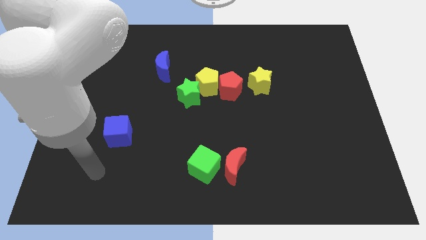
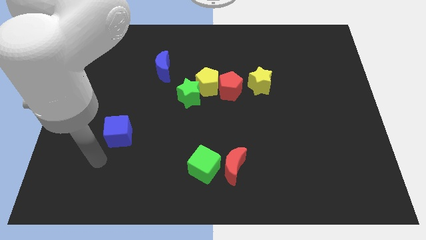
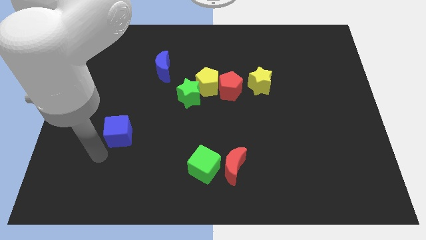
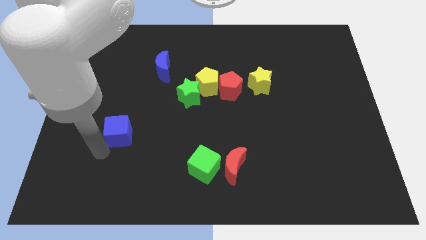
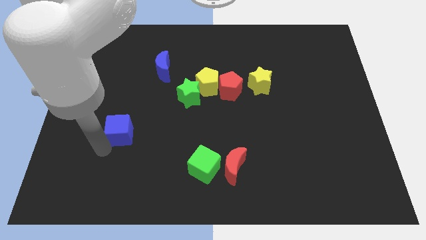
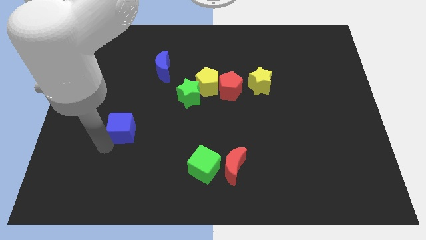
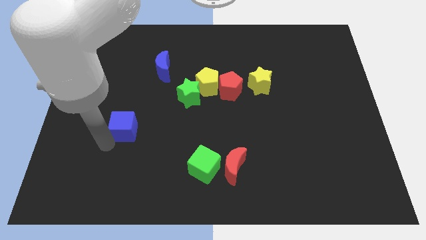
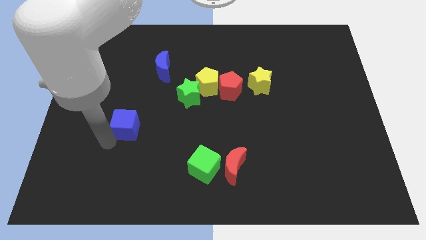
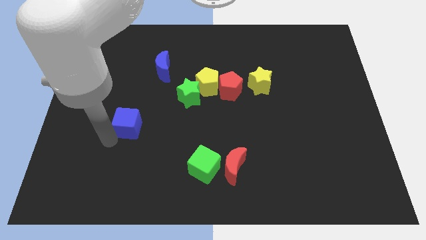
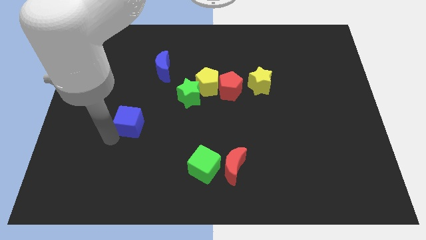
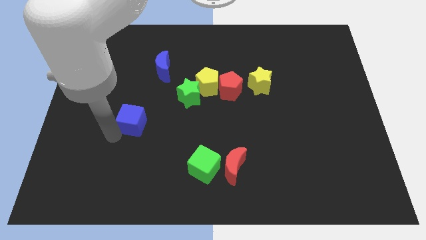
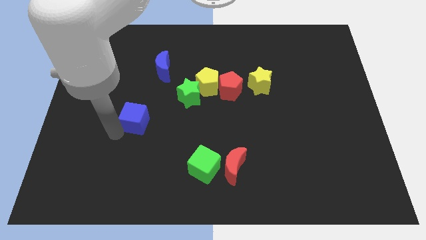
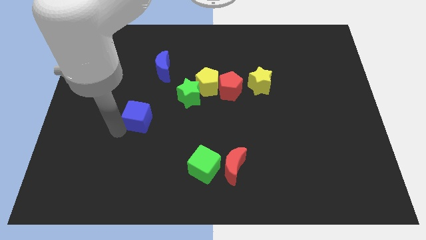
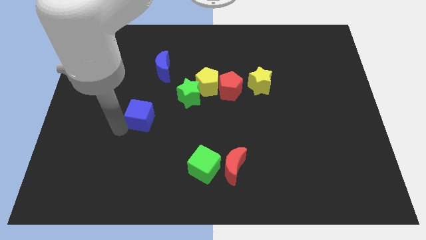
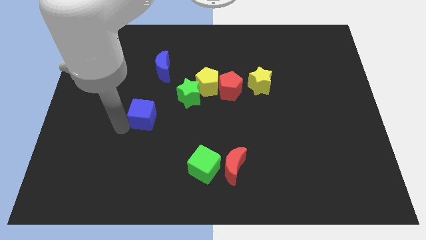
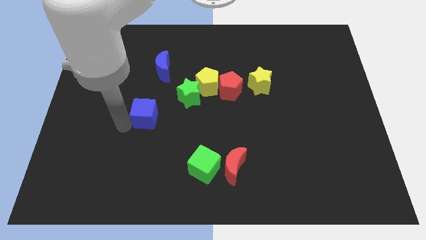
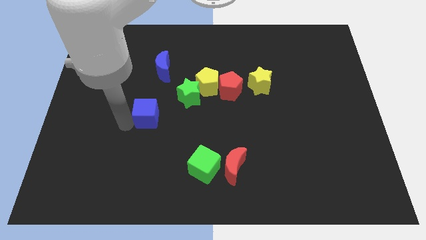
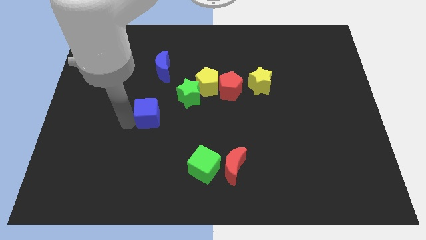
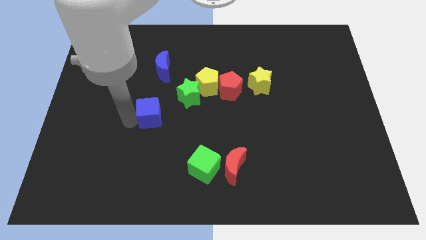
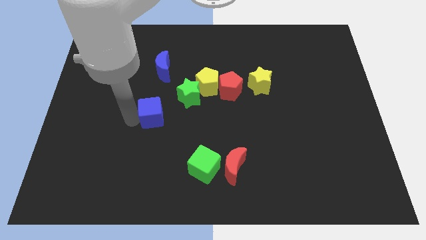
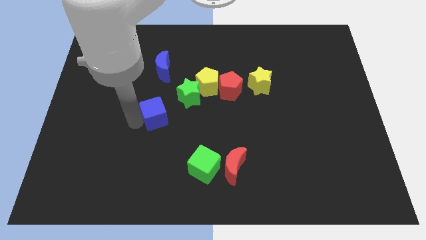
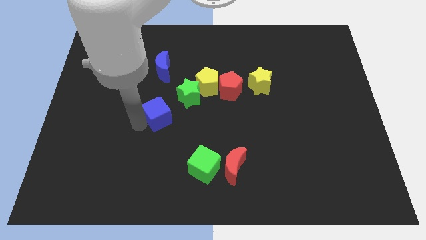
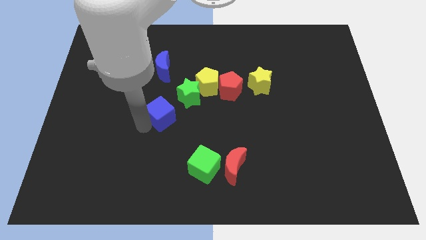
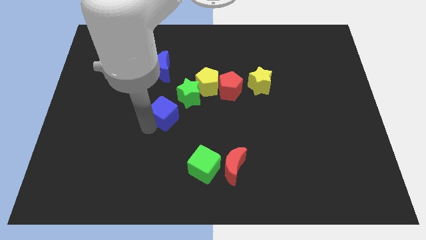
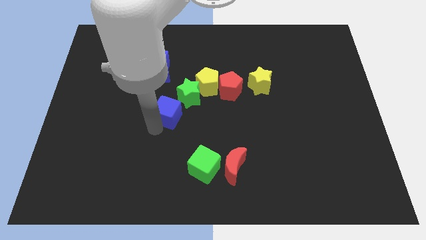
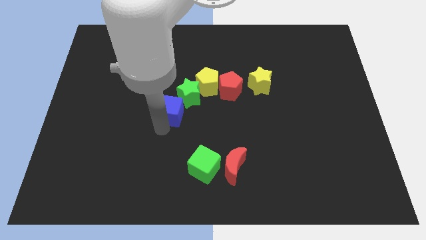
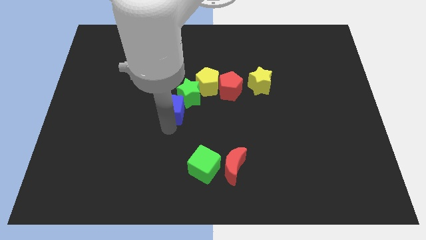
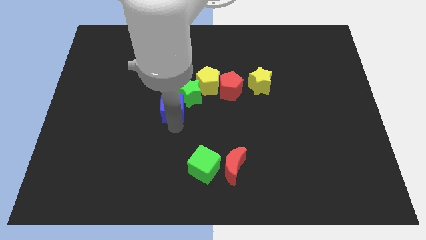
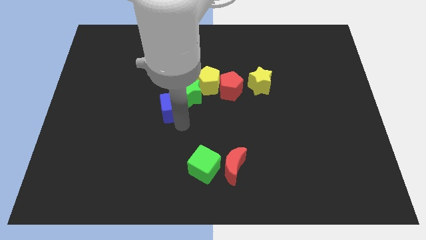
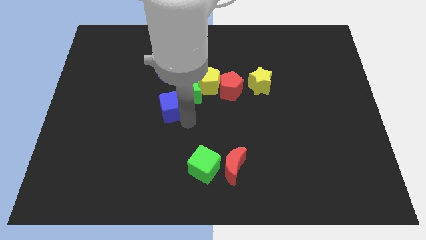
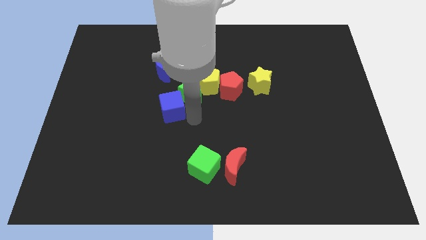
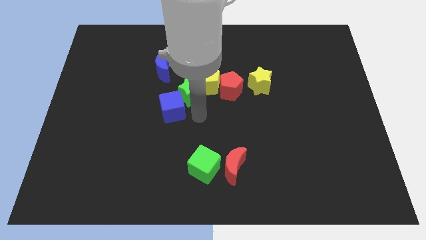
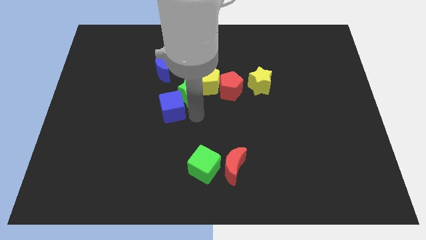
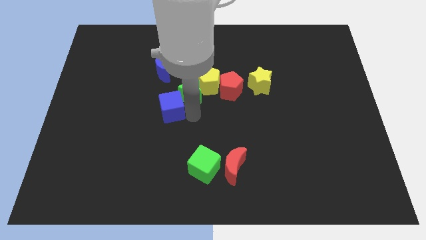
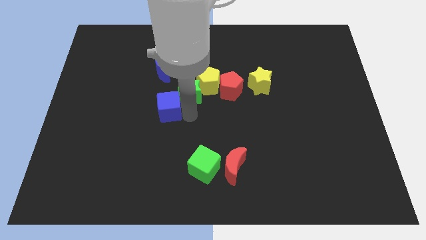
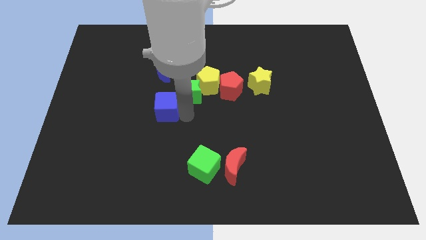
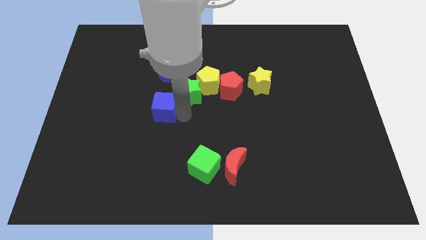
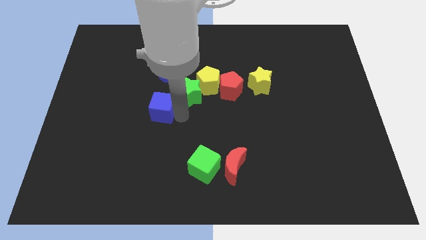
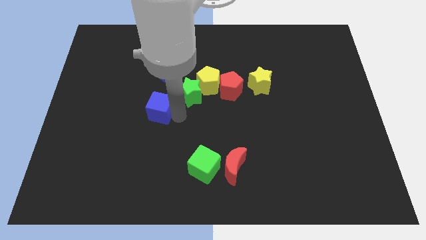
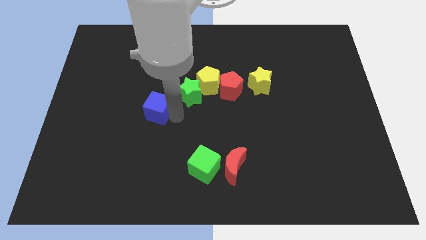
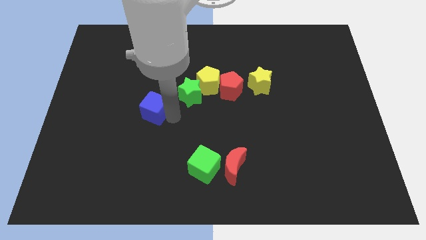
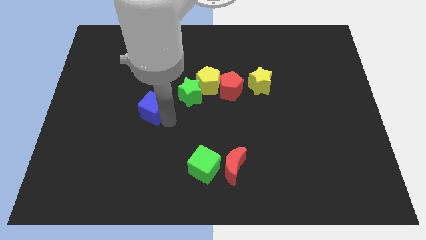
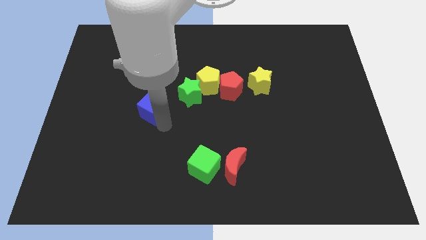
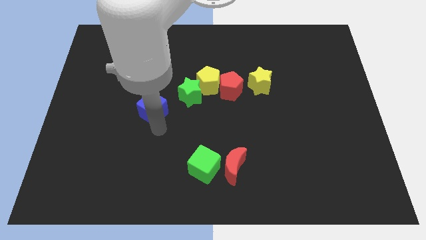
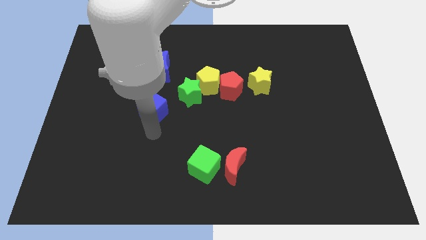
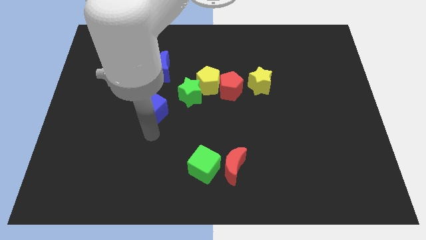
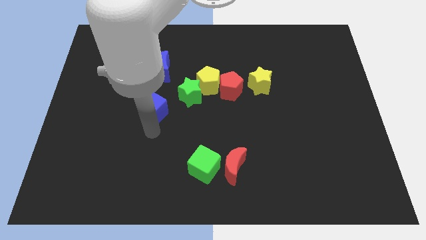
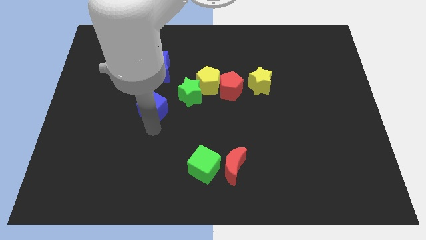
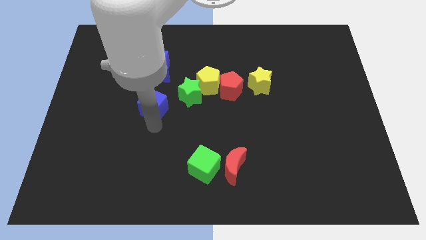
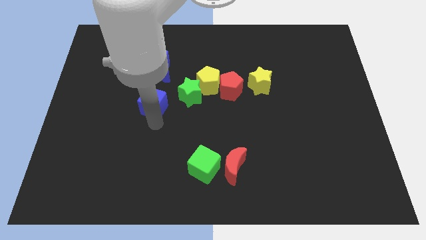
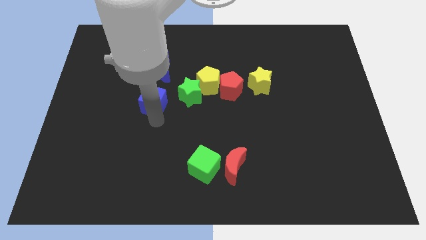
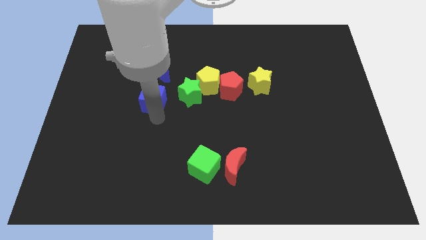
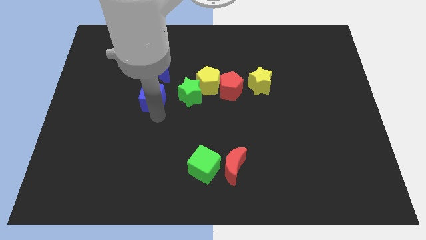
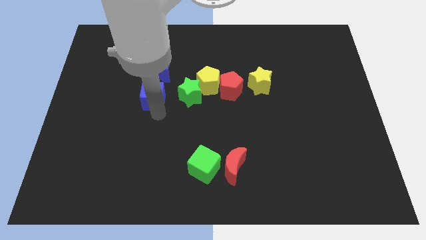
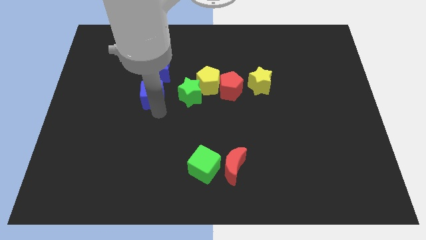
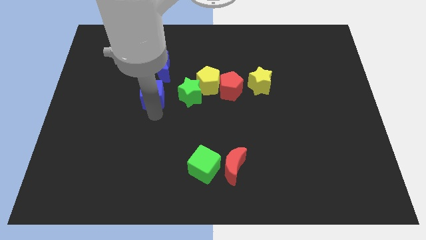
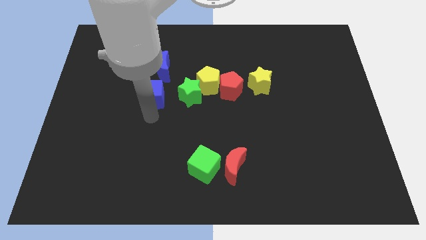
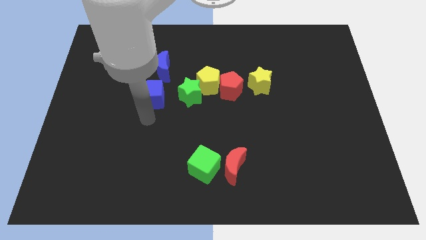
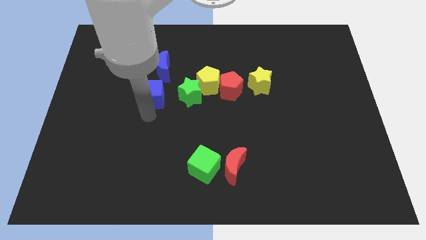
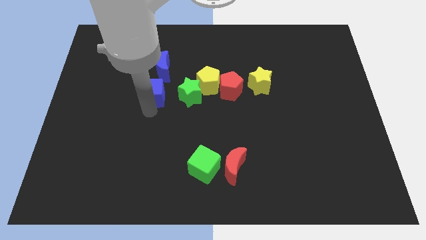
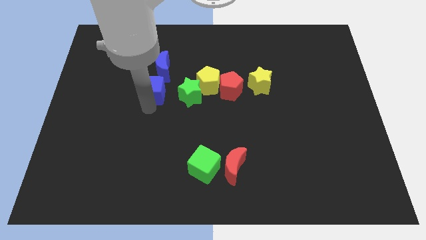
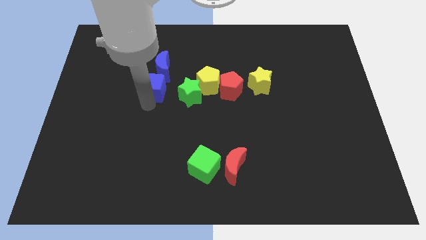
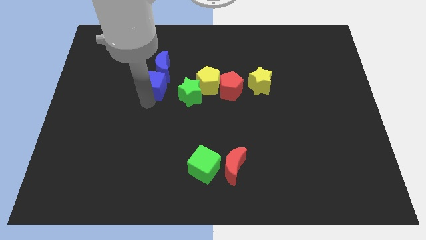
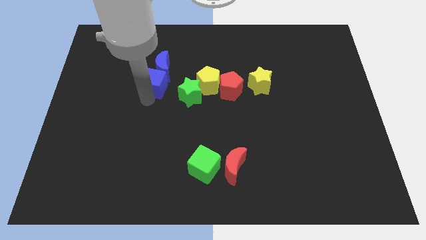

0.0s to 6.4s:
put the blue cube towards the blue moon
